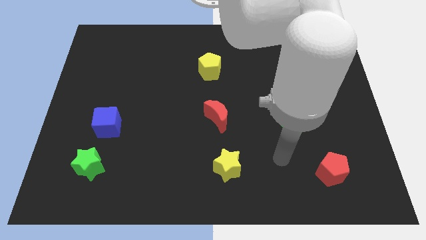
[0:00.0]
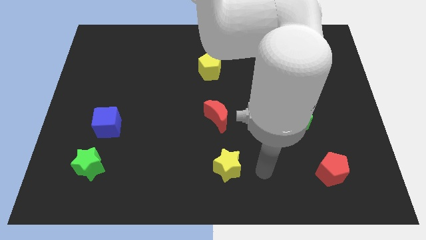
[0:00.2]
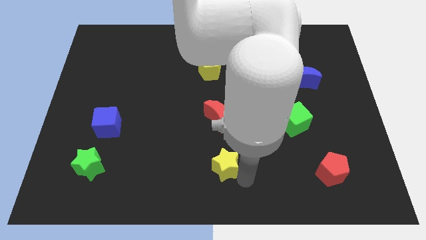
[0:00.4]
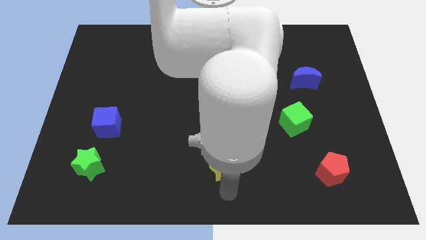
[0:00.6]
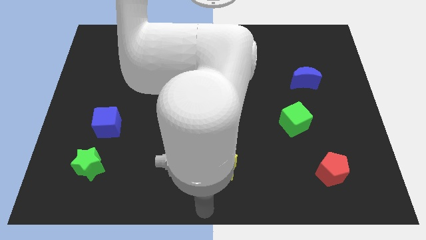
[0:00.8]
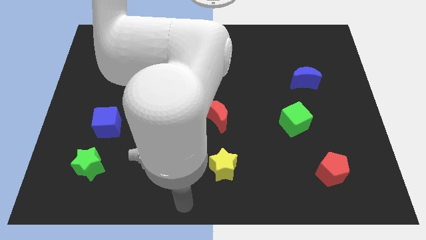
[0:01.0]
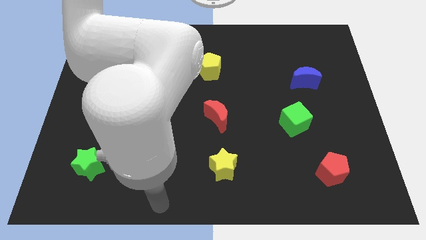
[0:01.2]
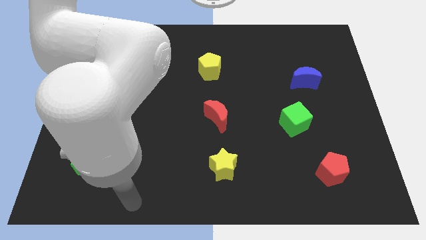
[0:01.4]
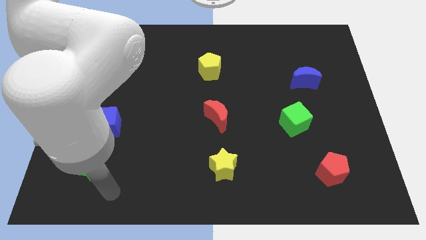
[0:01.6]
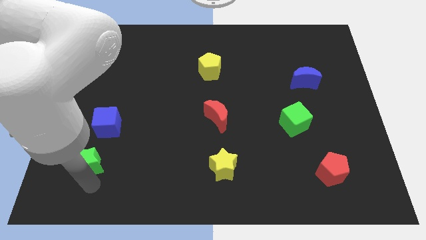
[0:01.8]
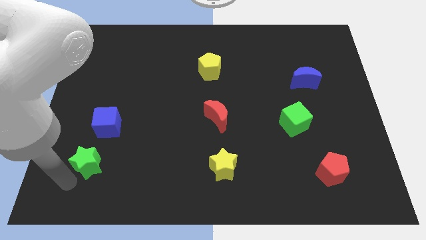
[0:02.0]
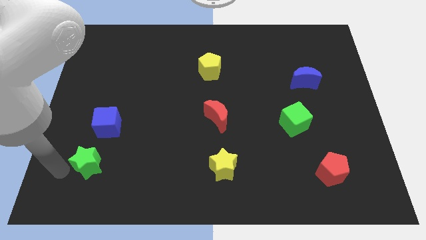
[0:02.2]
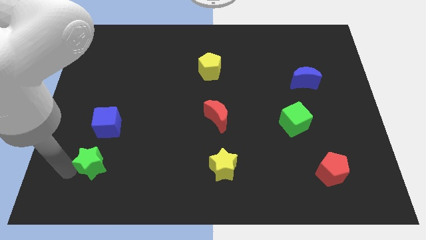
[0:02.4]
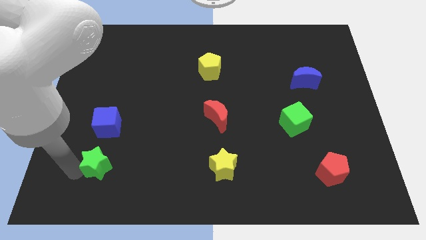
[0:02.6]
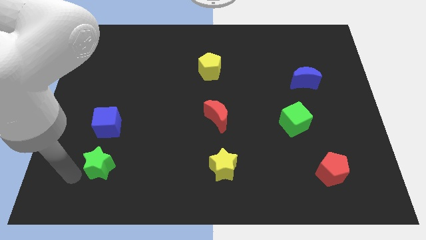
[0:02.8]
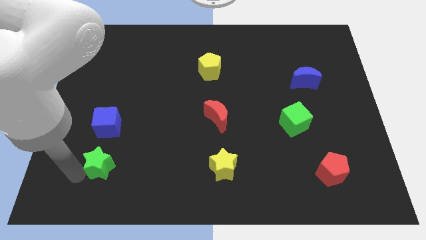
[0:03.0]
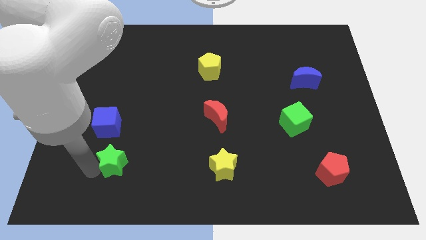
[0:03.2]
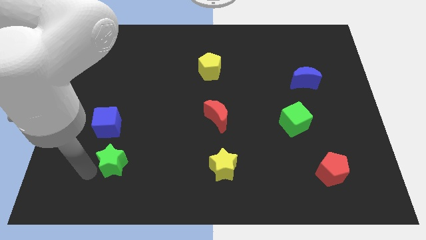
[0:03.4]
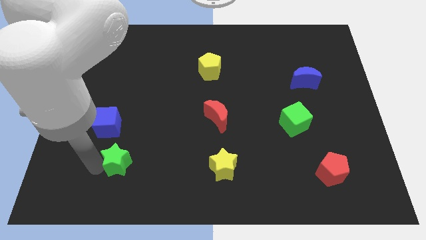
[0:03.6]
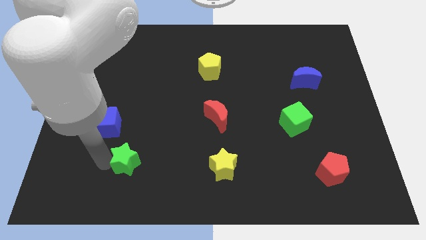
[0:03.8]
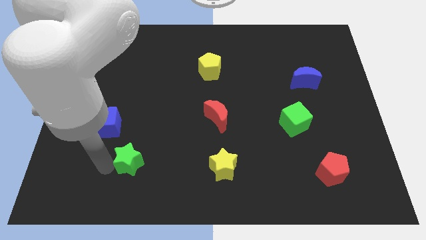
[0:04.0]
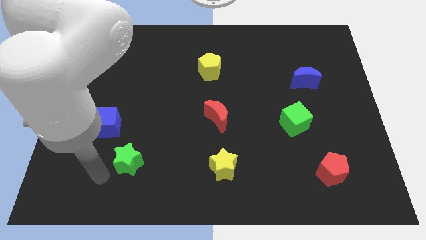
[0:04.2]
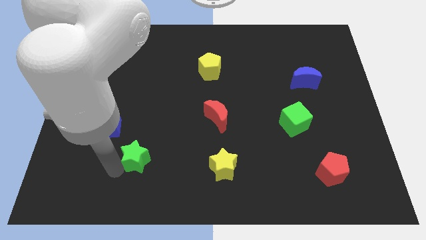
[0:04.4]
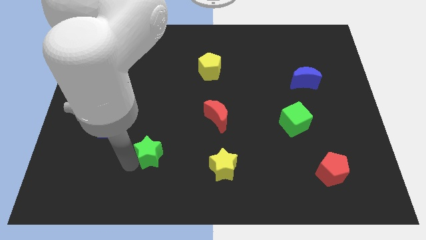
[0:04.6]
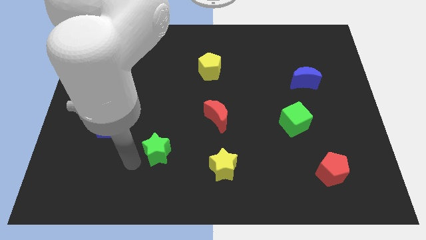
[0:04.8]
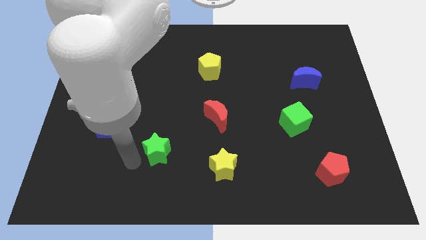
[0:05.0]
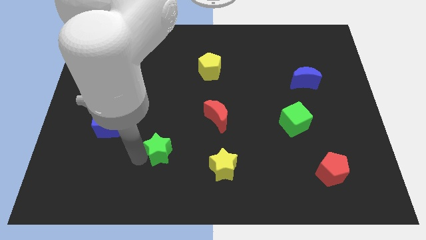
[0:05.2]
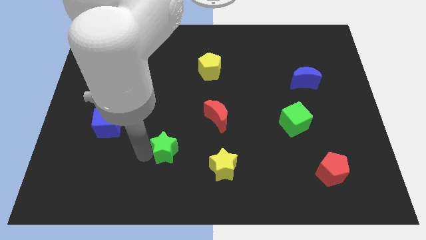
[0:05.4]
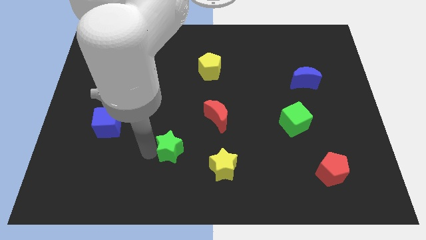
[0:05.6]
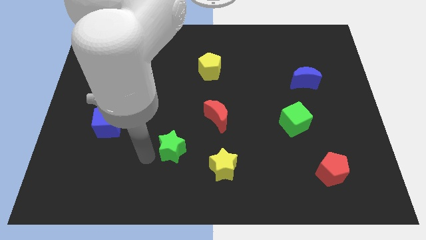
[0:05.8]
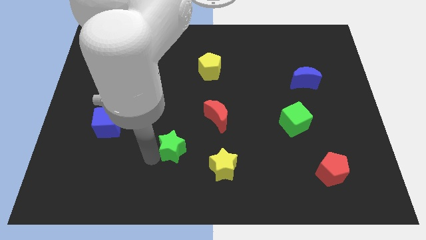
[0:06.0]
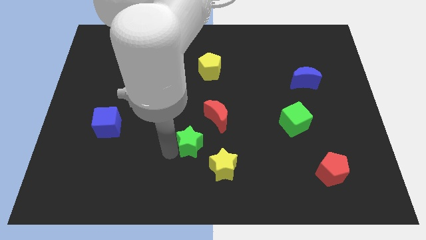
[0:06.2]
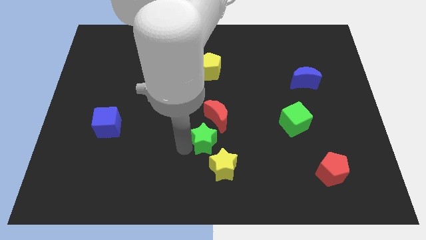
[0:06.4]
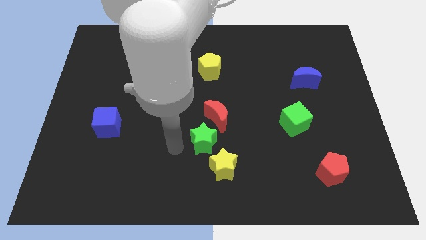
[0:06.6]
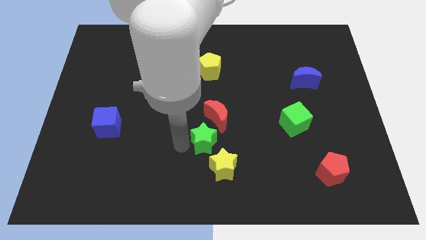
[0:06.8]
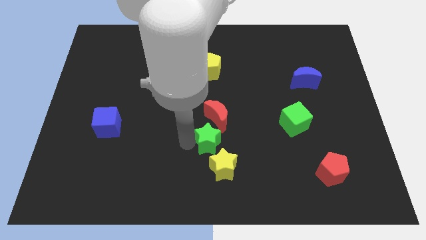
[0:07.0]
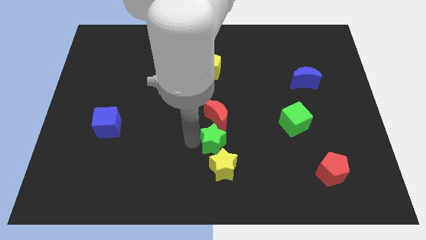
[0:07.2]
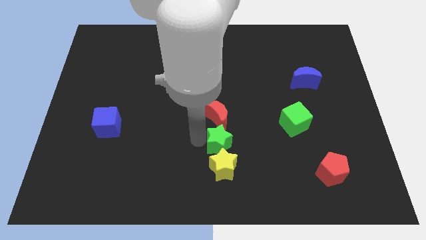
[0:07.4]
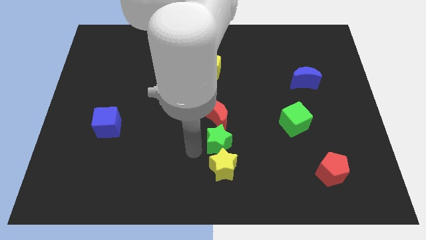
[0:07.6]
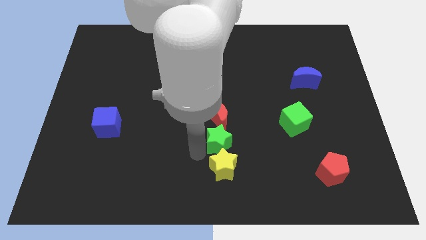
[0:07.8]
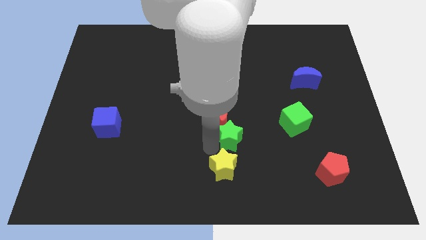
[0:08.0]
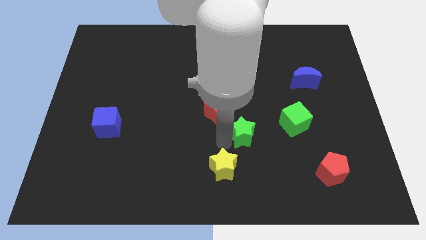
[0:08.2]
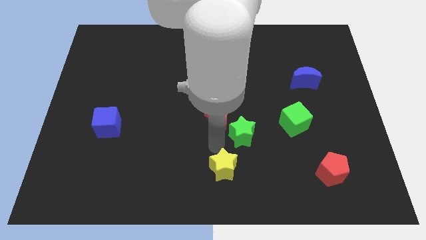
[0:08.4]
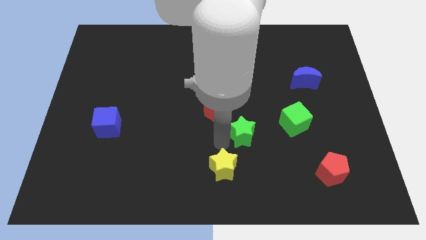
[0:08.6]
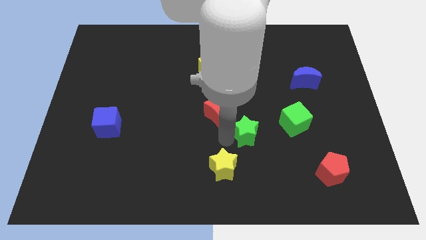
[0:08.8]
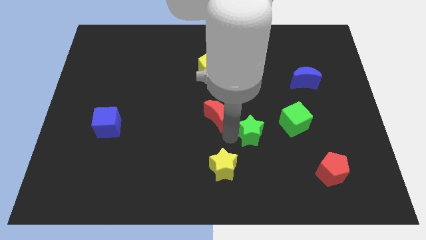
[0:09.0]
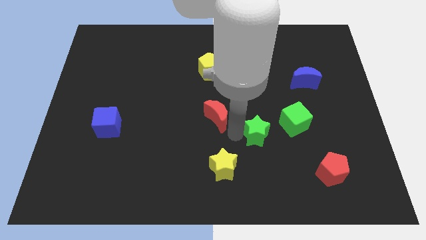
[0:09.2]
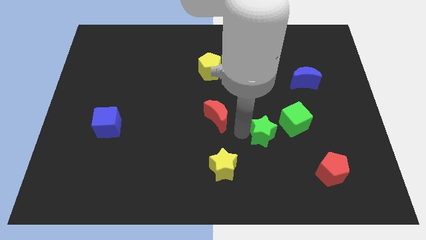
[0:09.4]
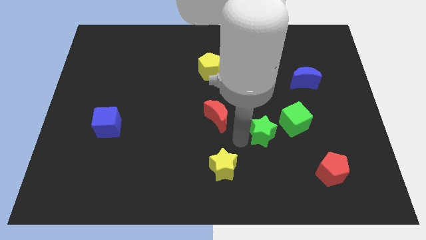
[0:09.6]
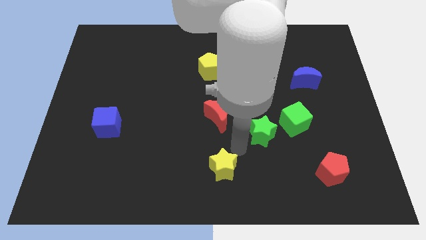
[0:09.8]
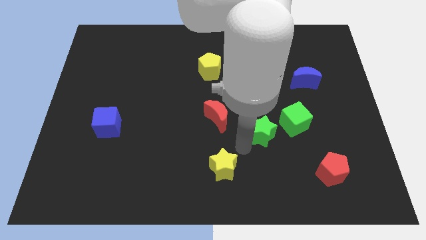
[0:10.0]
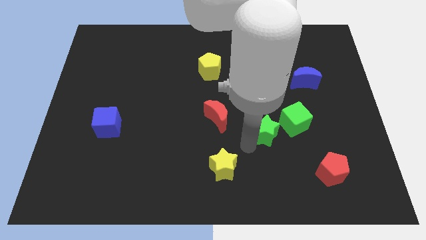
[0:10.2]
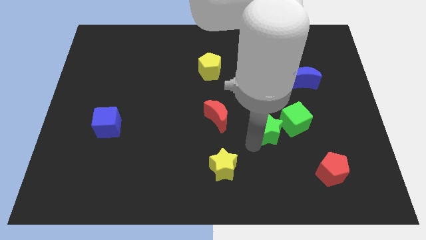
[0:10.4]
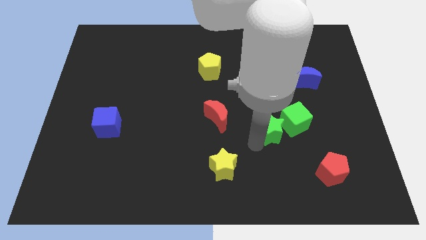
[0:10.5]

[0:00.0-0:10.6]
put the green star towards the green cube

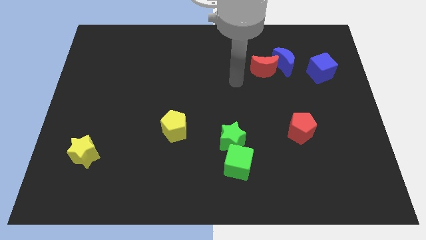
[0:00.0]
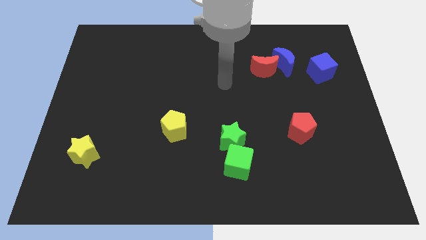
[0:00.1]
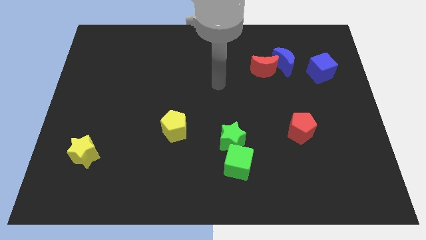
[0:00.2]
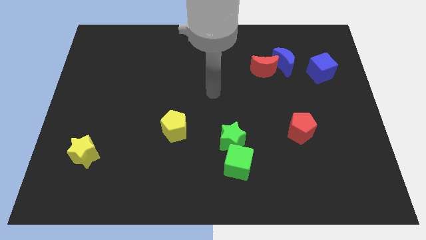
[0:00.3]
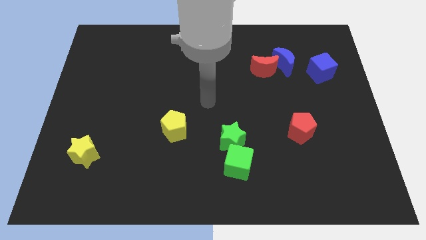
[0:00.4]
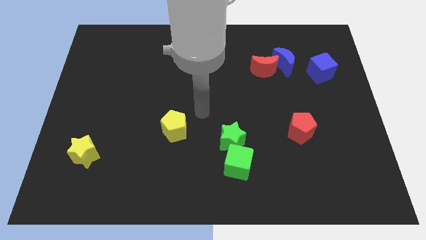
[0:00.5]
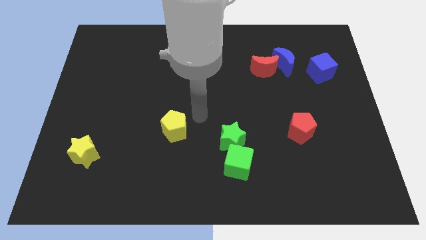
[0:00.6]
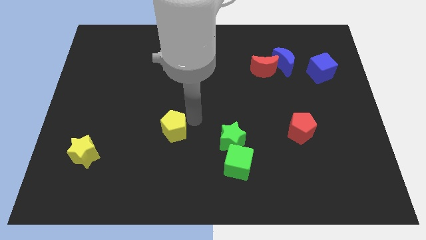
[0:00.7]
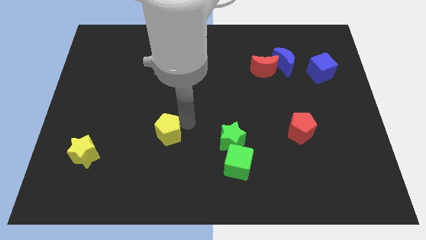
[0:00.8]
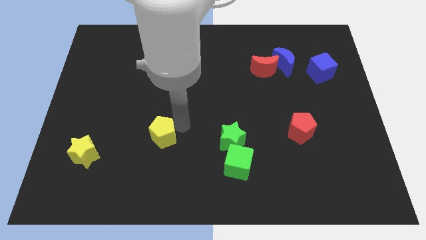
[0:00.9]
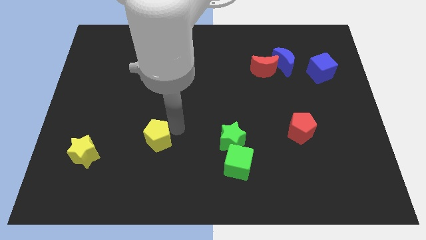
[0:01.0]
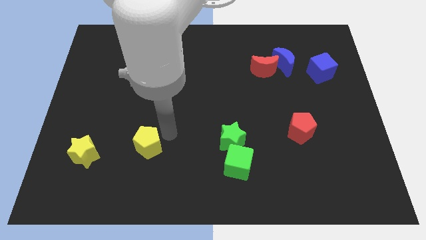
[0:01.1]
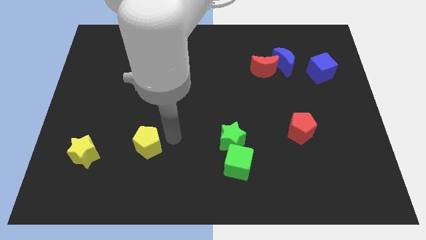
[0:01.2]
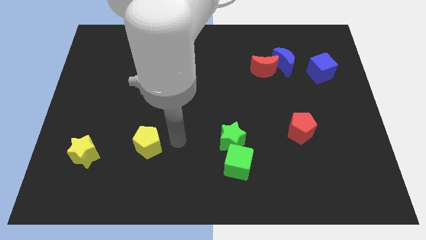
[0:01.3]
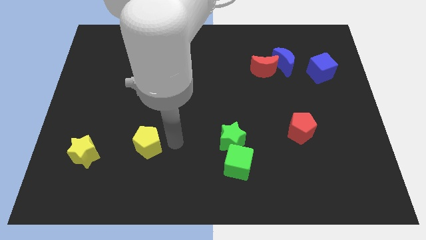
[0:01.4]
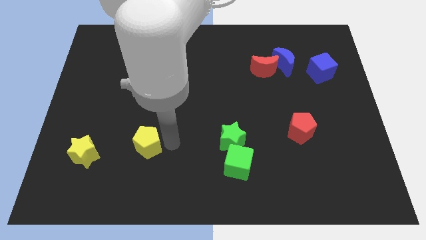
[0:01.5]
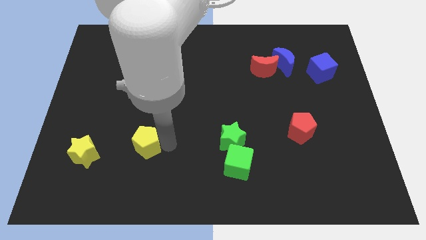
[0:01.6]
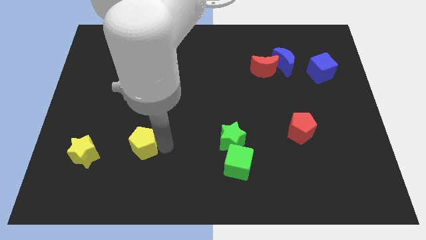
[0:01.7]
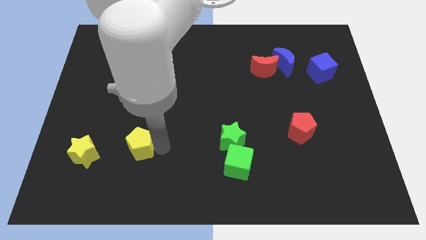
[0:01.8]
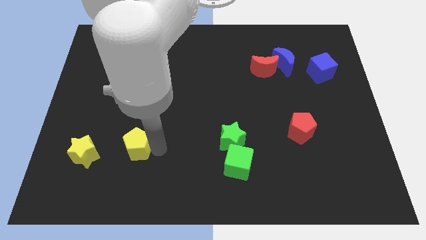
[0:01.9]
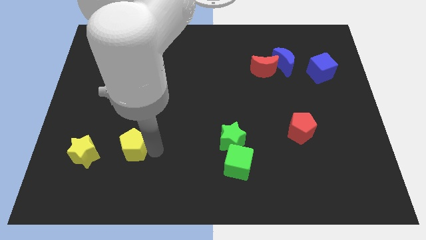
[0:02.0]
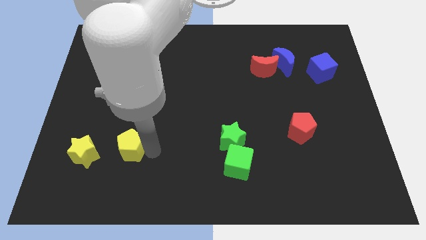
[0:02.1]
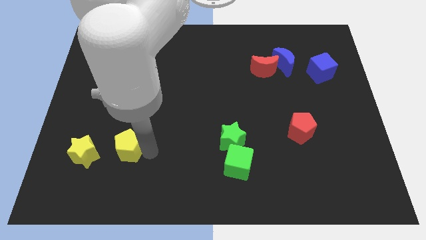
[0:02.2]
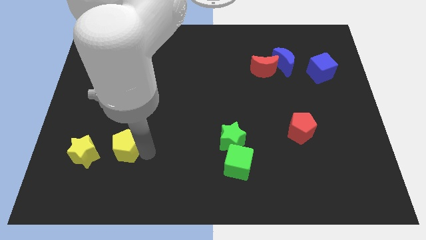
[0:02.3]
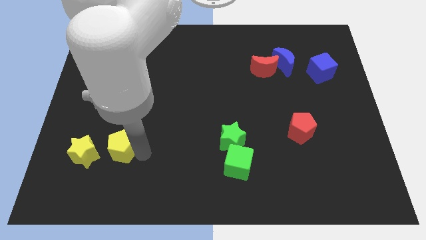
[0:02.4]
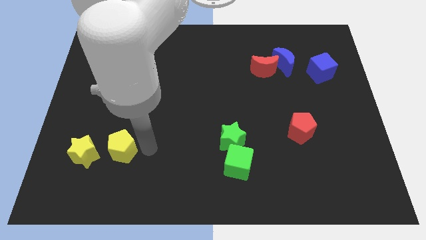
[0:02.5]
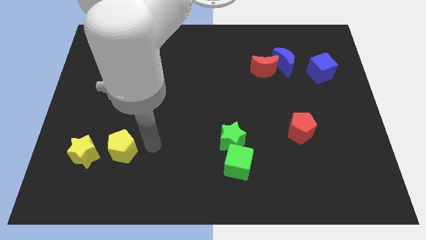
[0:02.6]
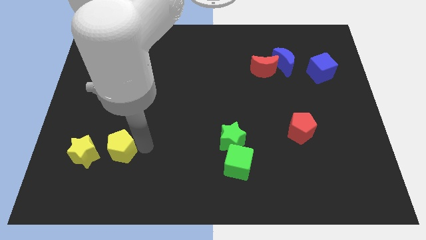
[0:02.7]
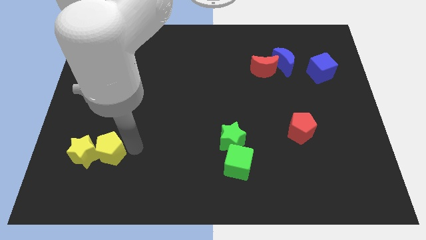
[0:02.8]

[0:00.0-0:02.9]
slide the yellow pentagon to the yellow star
